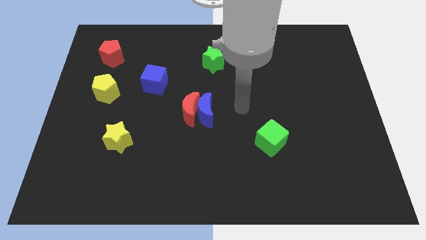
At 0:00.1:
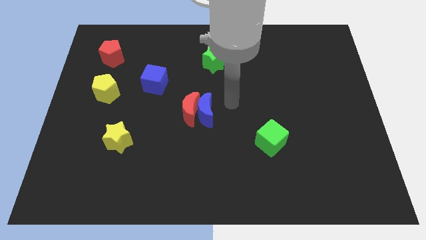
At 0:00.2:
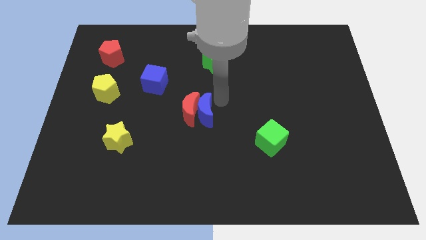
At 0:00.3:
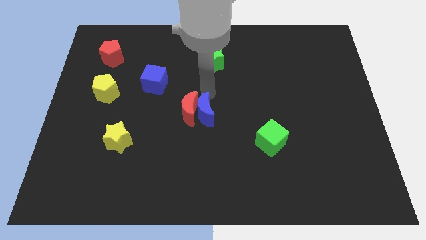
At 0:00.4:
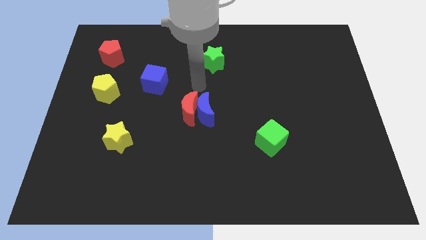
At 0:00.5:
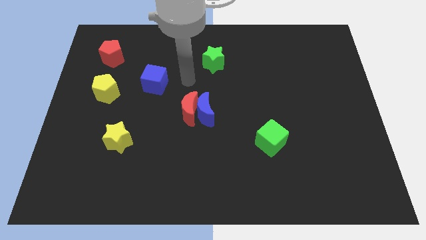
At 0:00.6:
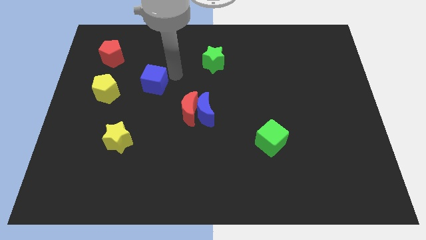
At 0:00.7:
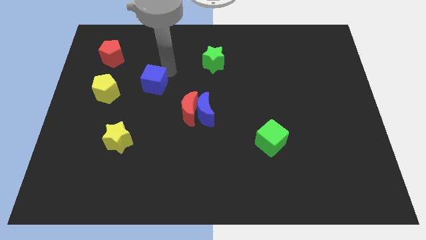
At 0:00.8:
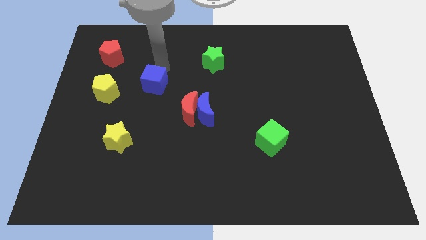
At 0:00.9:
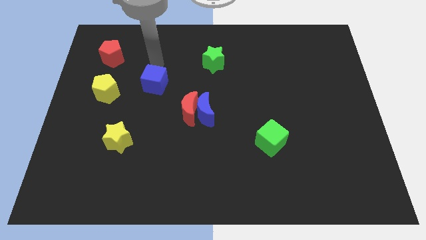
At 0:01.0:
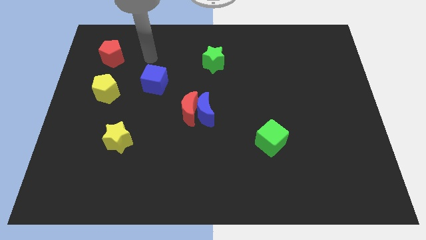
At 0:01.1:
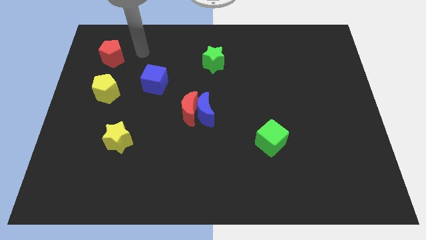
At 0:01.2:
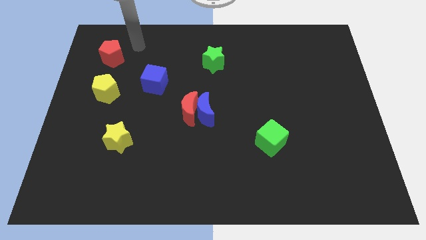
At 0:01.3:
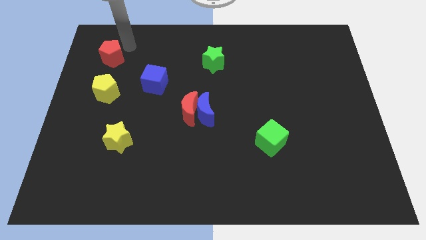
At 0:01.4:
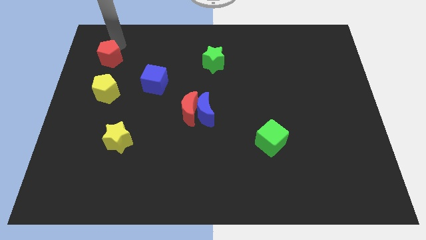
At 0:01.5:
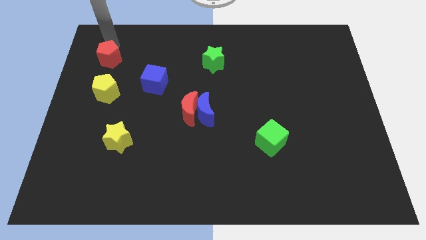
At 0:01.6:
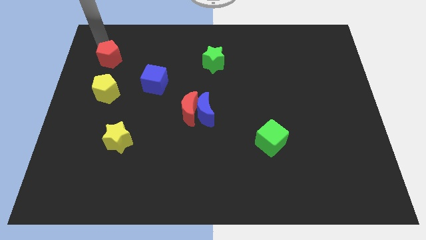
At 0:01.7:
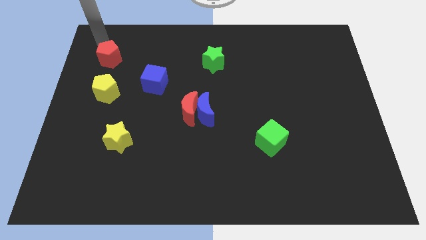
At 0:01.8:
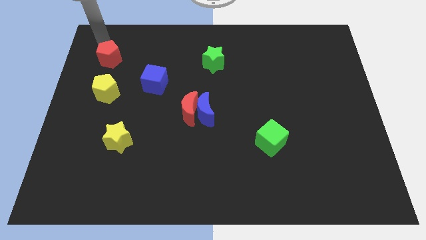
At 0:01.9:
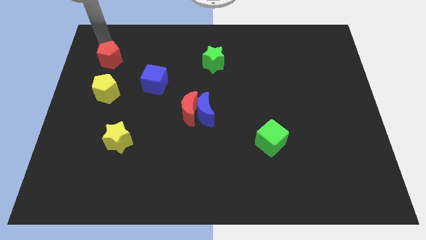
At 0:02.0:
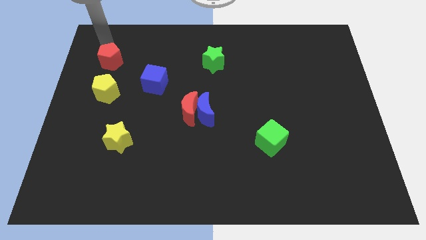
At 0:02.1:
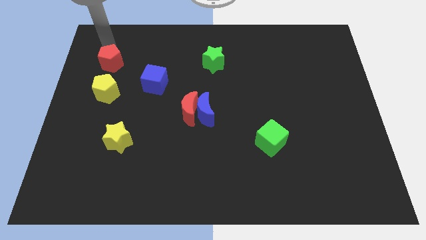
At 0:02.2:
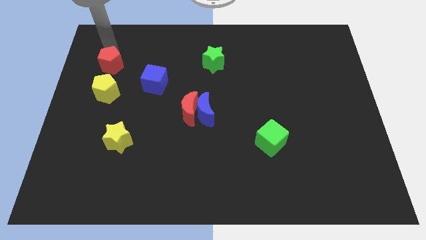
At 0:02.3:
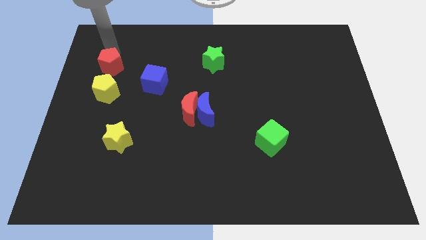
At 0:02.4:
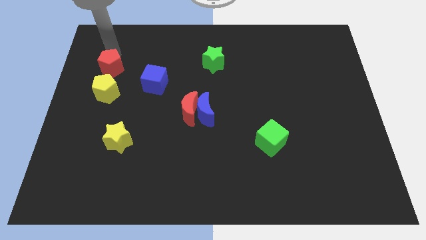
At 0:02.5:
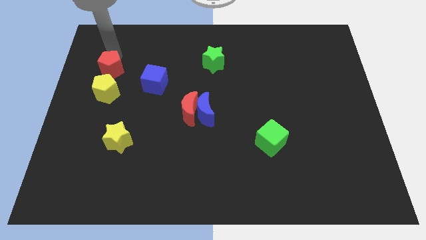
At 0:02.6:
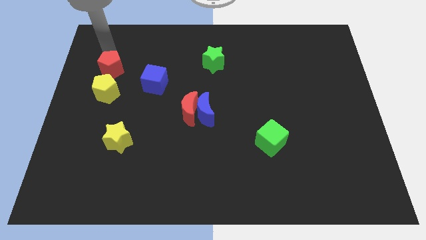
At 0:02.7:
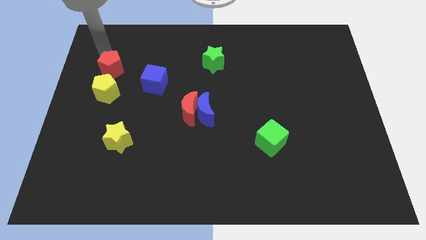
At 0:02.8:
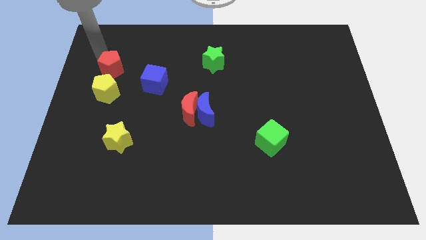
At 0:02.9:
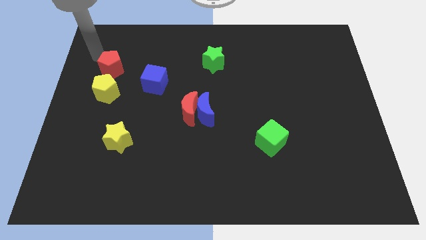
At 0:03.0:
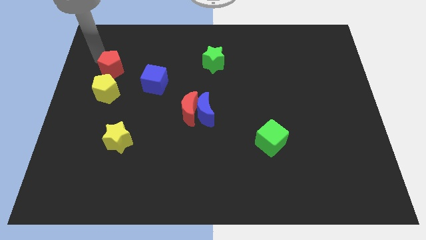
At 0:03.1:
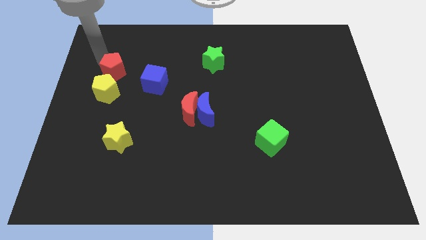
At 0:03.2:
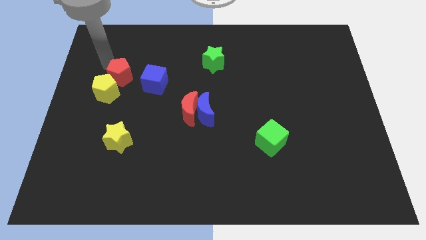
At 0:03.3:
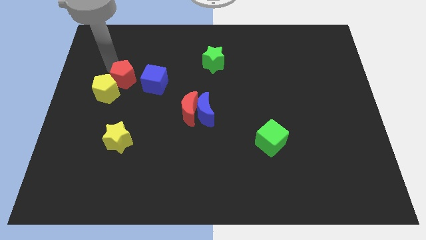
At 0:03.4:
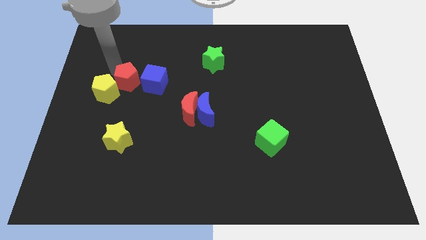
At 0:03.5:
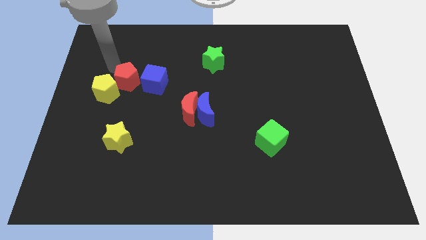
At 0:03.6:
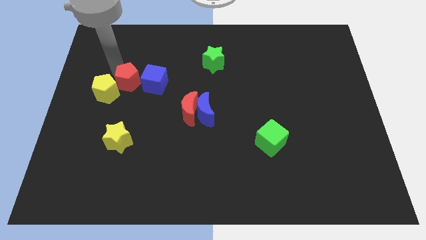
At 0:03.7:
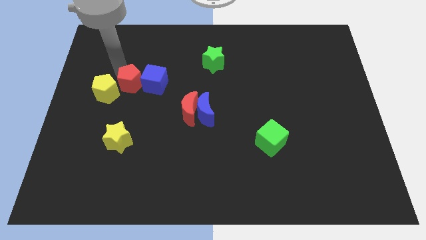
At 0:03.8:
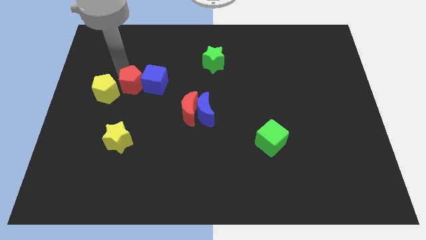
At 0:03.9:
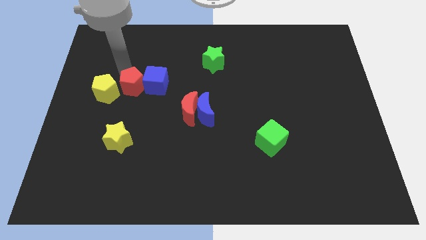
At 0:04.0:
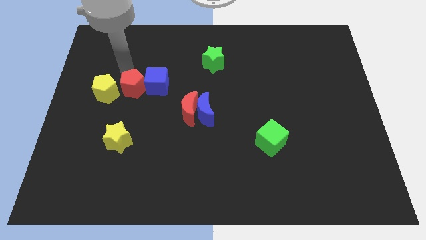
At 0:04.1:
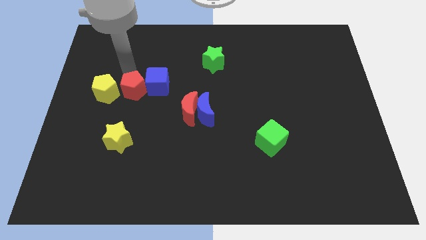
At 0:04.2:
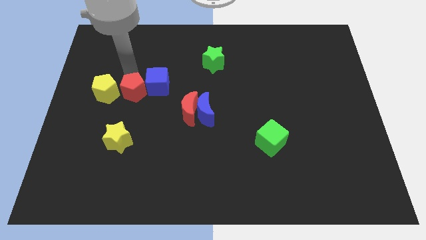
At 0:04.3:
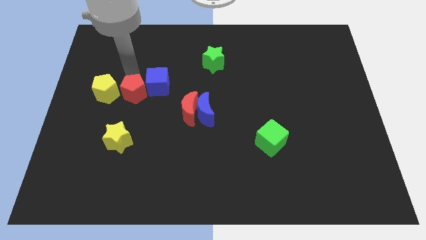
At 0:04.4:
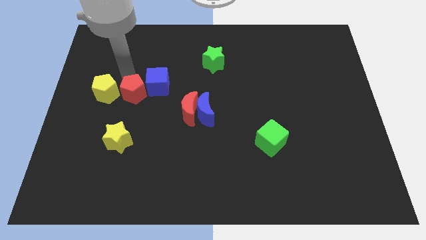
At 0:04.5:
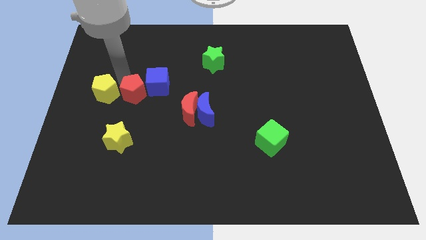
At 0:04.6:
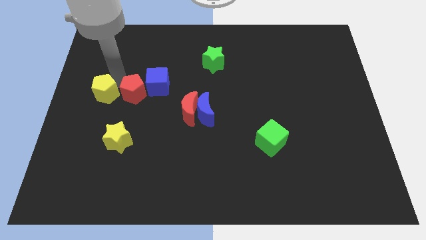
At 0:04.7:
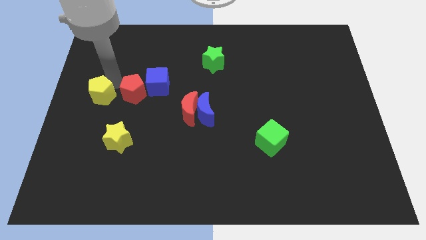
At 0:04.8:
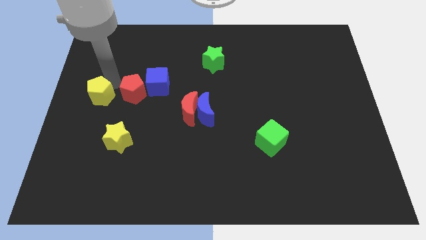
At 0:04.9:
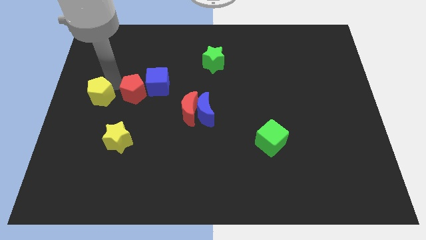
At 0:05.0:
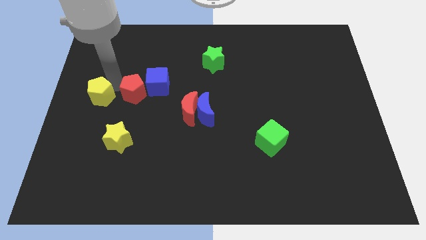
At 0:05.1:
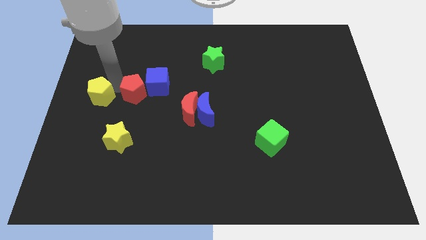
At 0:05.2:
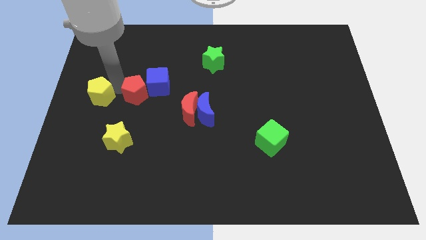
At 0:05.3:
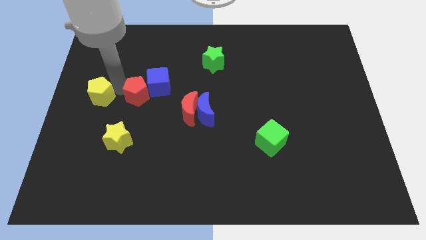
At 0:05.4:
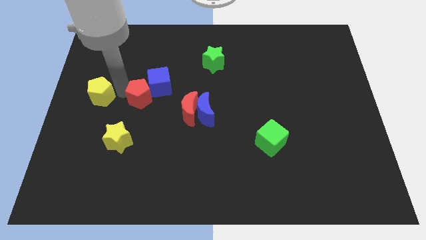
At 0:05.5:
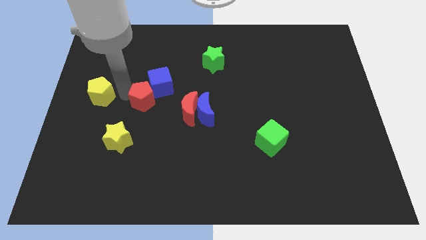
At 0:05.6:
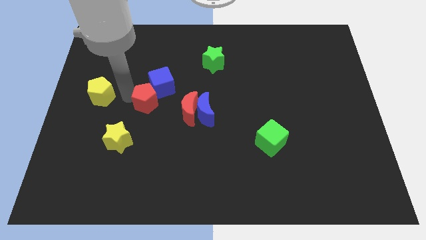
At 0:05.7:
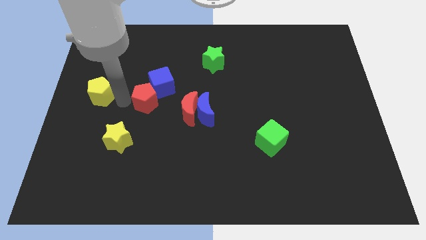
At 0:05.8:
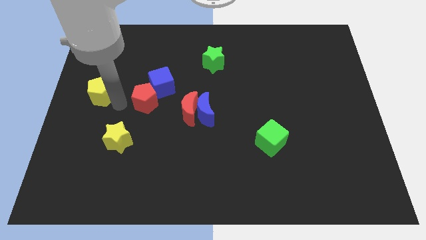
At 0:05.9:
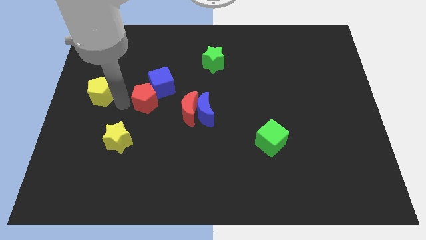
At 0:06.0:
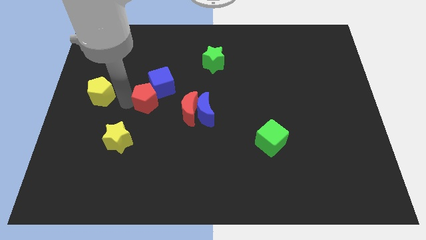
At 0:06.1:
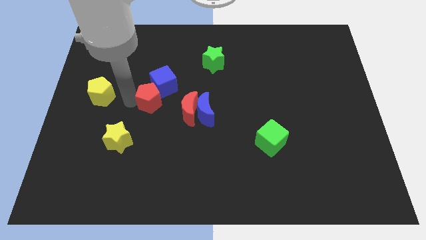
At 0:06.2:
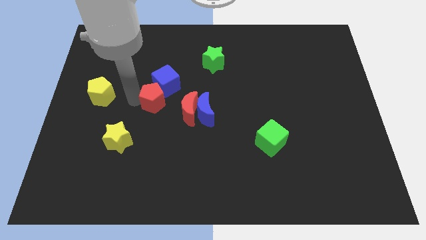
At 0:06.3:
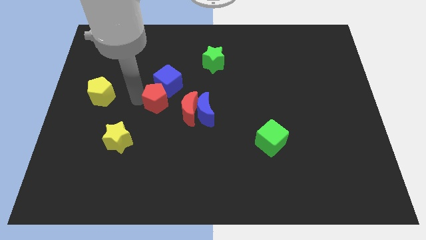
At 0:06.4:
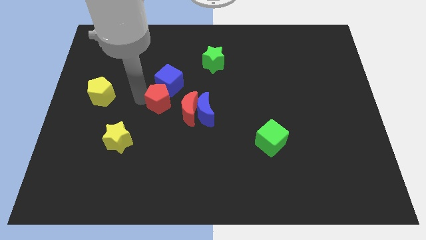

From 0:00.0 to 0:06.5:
move the red pentagon to the middle
